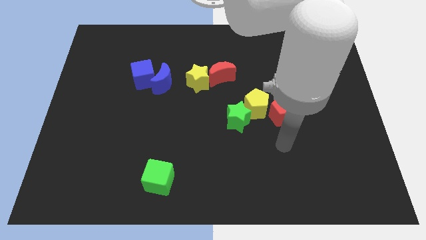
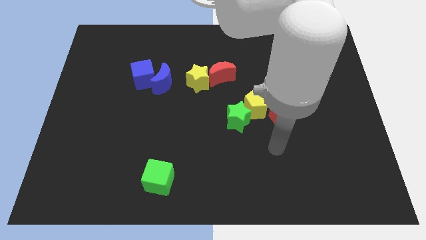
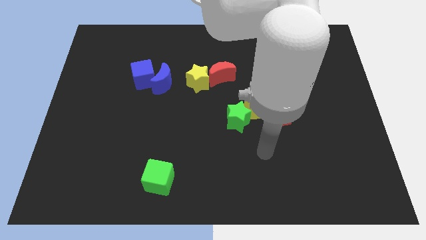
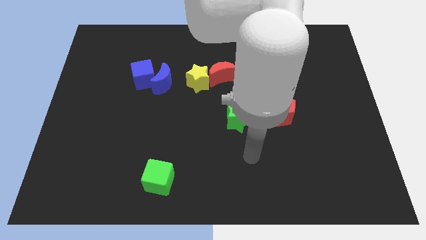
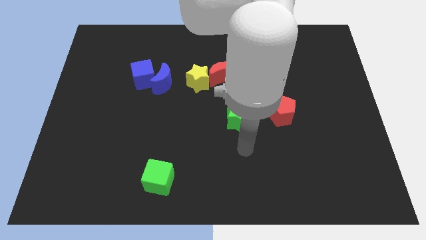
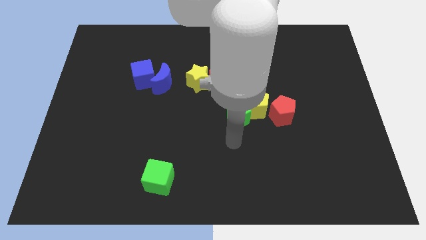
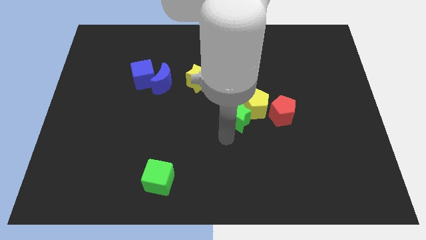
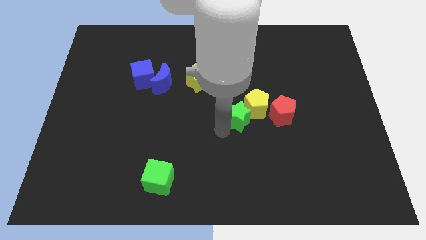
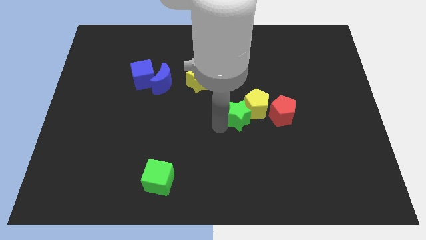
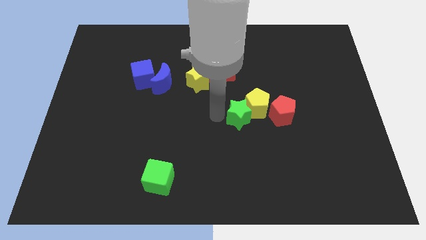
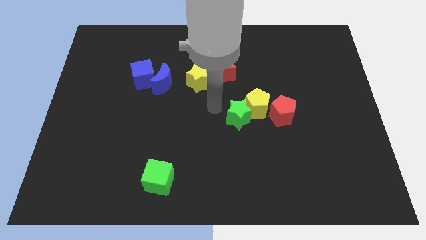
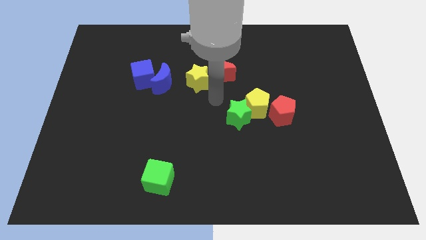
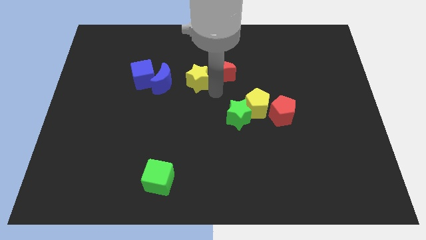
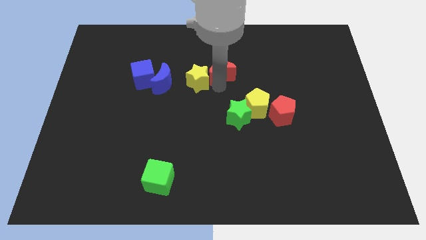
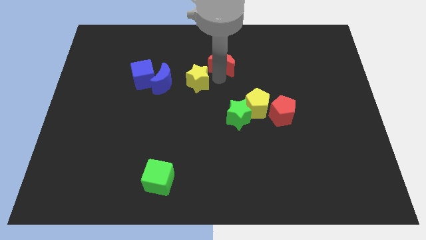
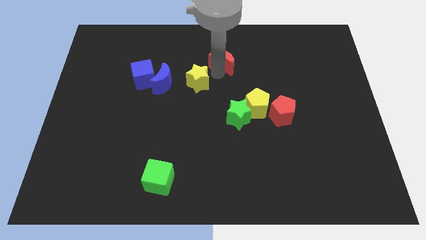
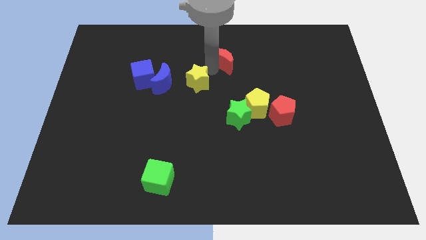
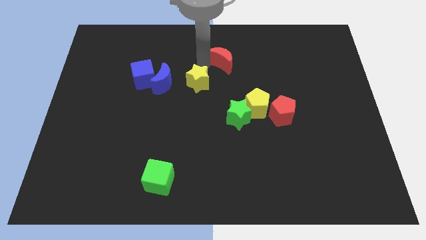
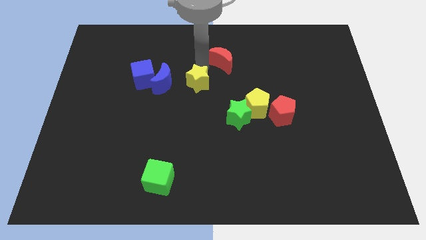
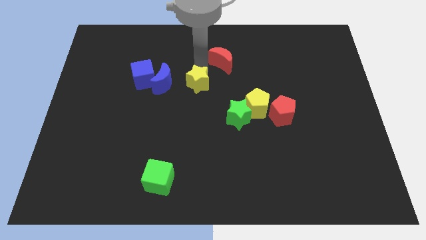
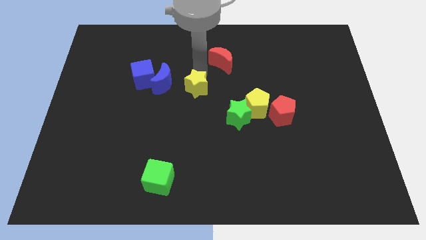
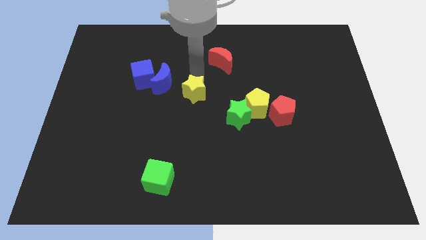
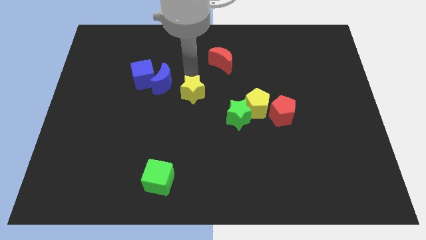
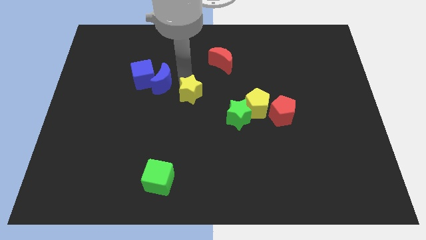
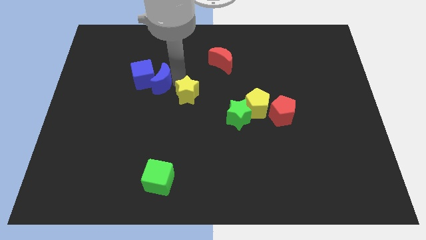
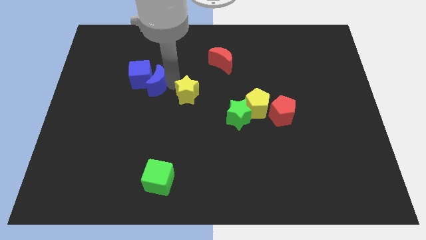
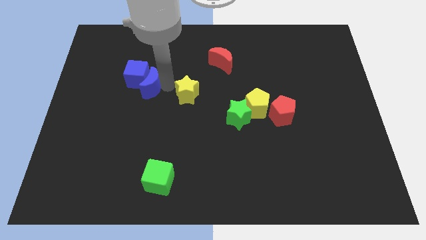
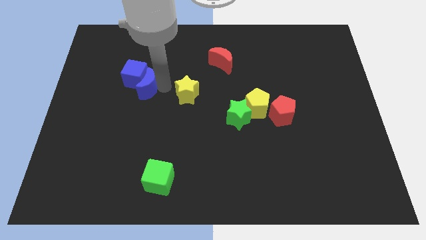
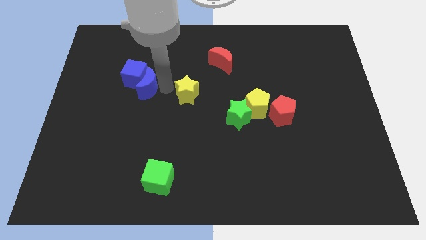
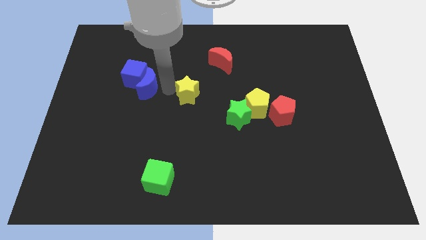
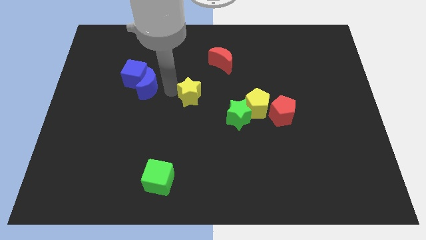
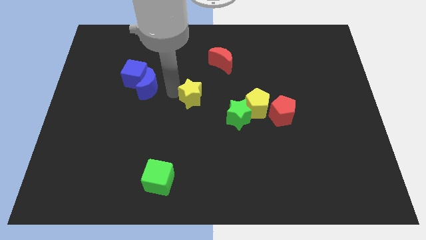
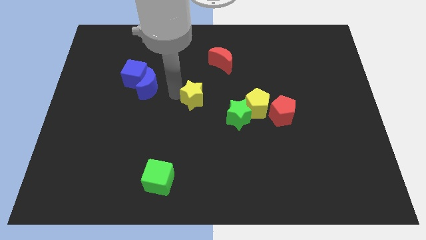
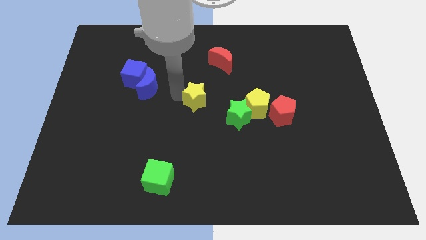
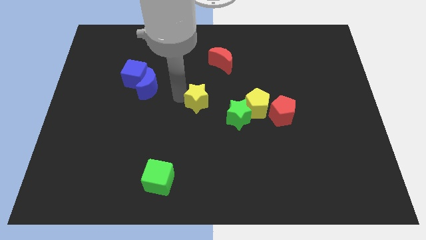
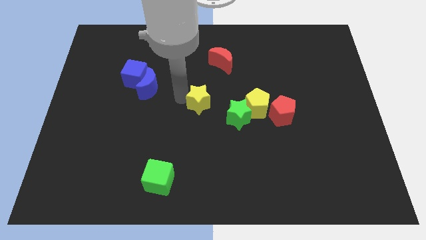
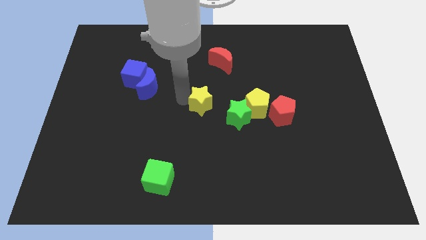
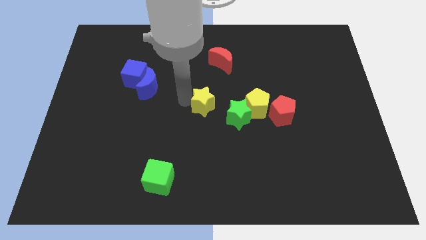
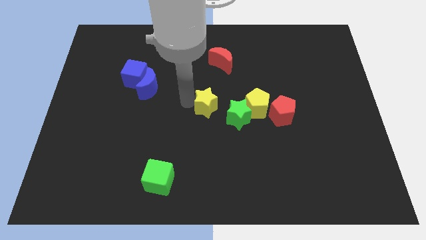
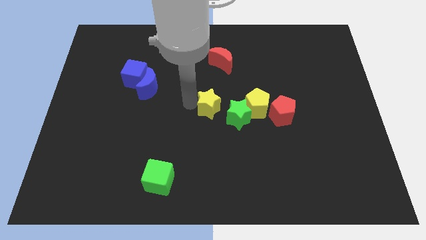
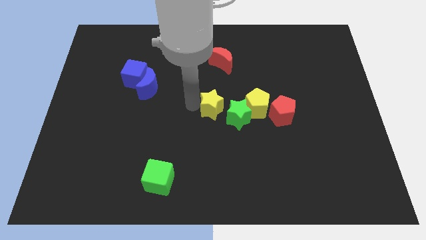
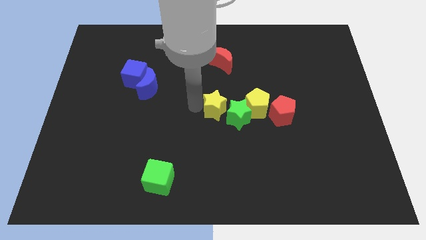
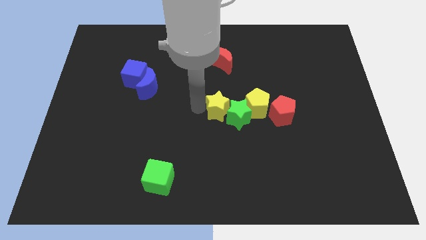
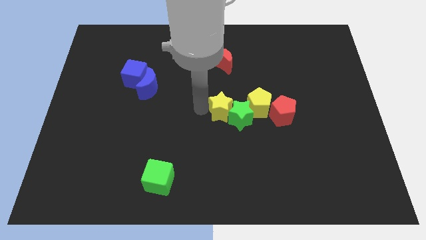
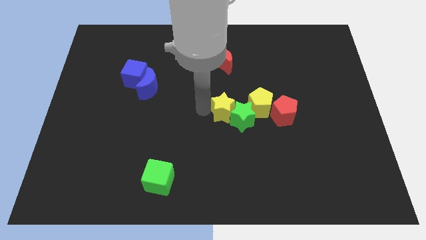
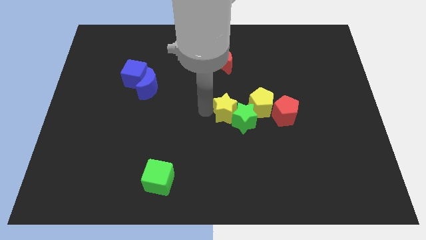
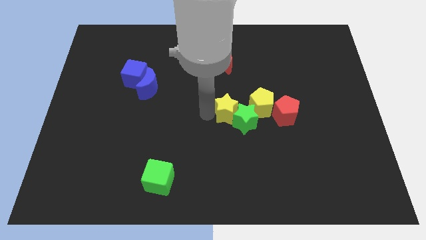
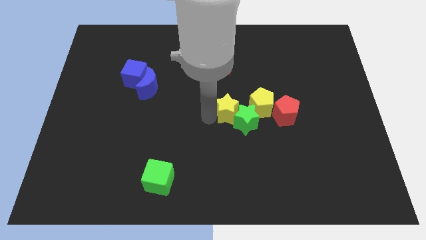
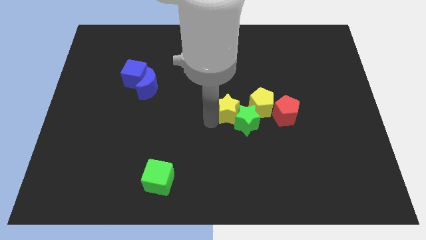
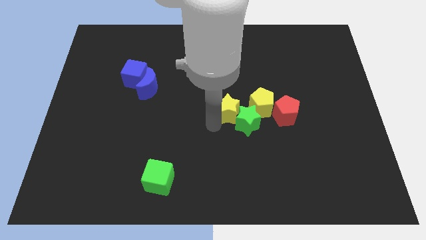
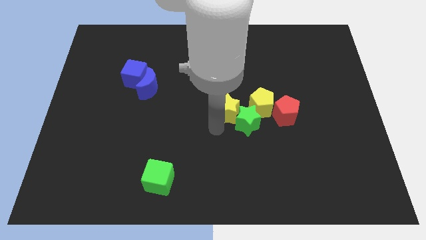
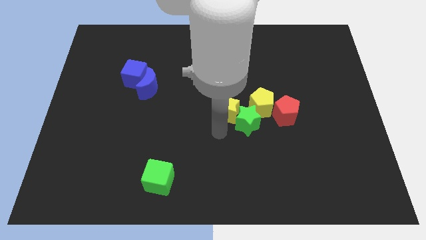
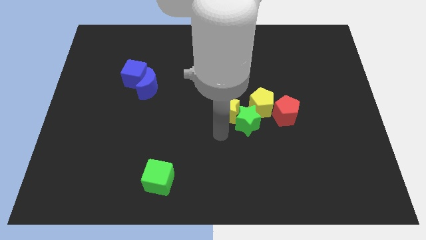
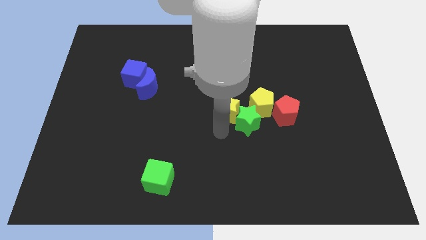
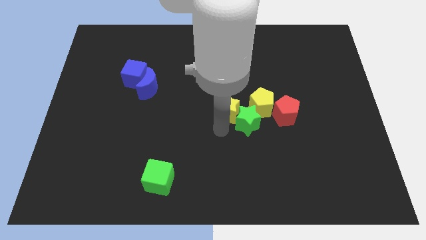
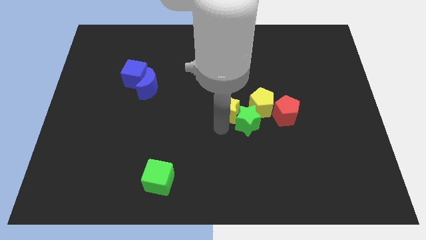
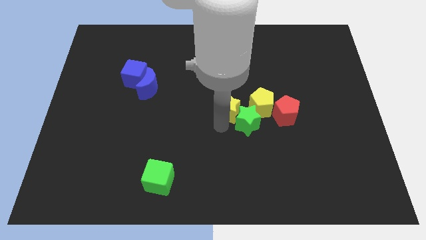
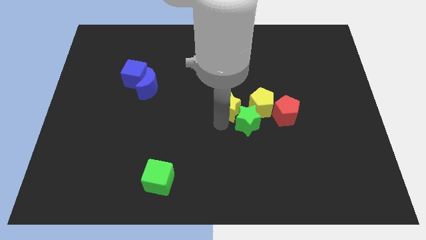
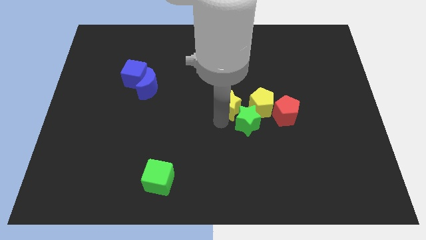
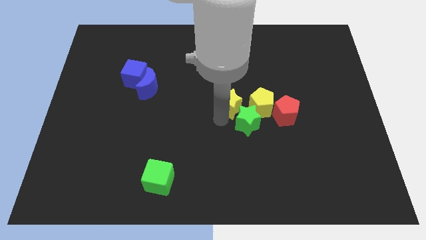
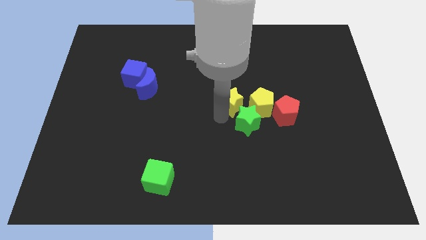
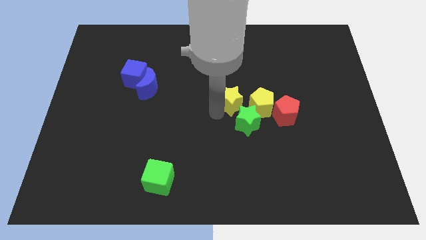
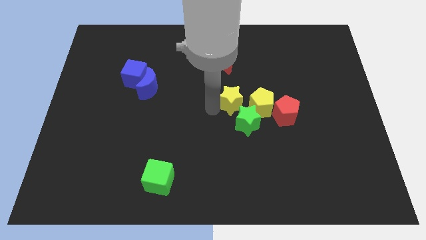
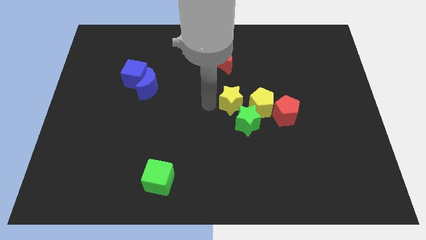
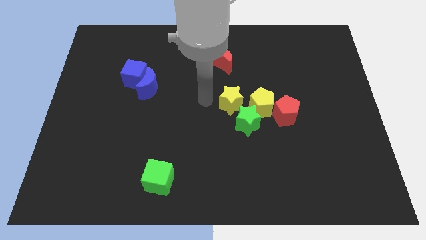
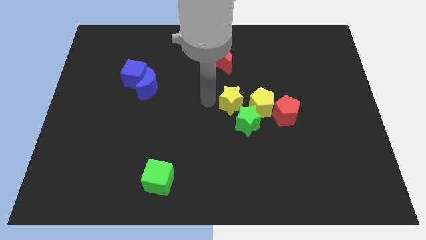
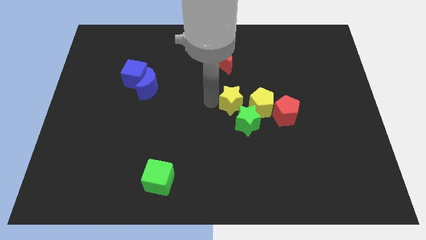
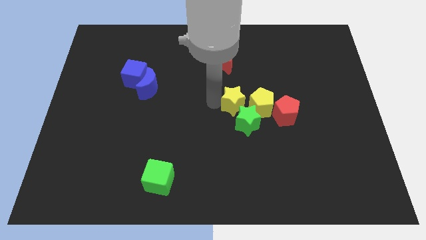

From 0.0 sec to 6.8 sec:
move the yellow star towards the yellow pentagon
